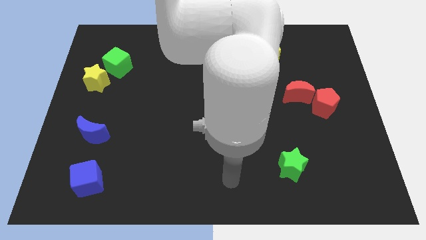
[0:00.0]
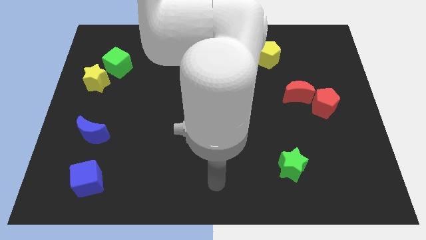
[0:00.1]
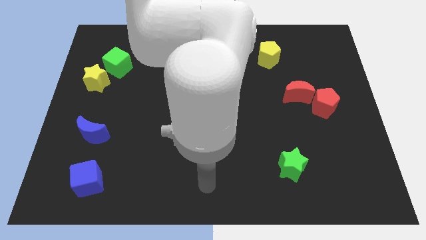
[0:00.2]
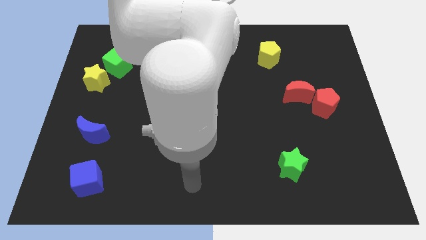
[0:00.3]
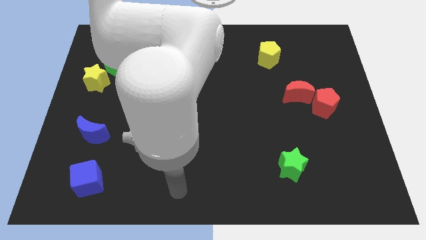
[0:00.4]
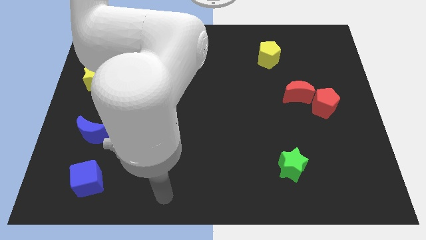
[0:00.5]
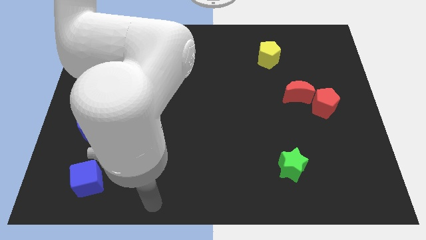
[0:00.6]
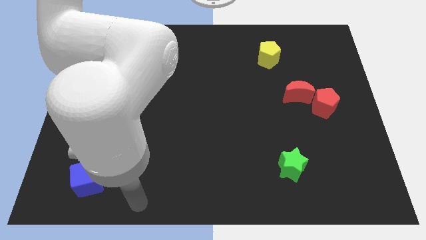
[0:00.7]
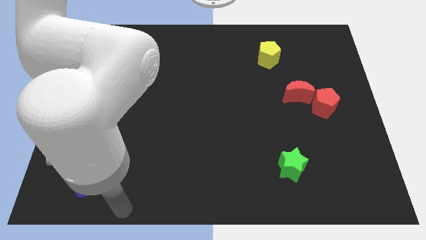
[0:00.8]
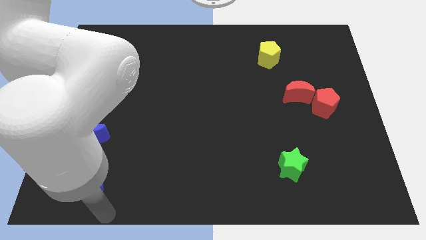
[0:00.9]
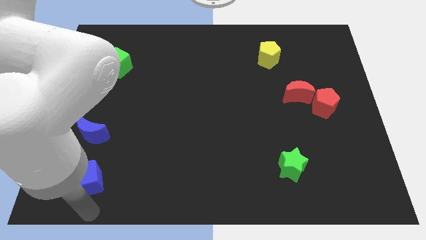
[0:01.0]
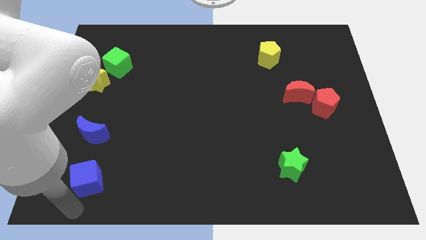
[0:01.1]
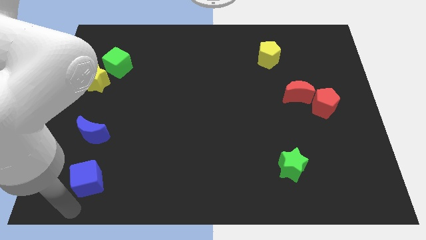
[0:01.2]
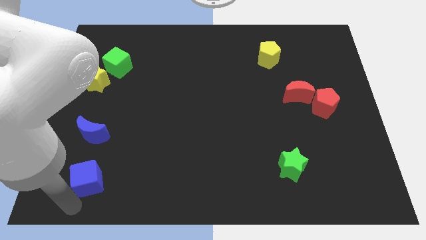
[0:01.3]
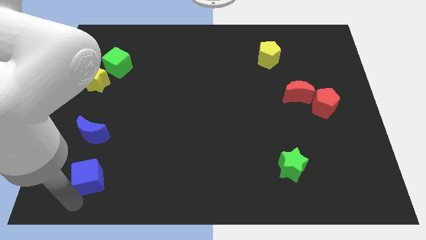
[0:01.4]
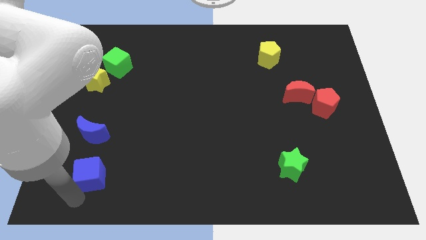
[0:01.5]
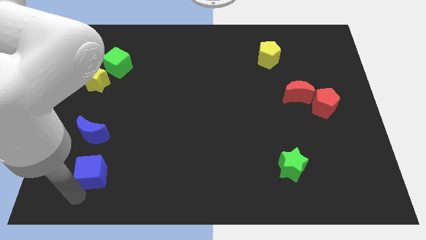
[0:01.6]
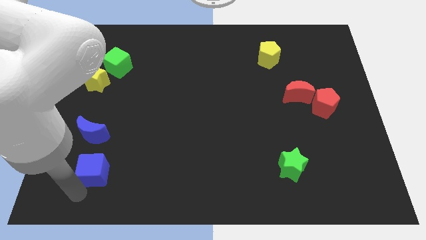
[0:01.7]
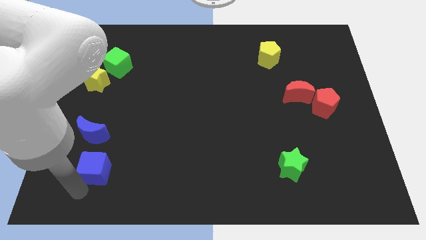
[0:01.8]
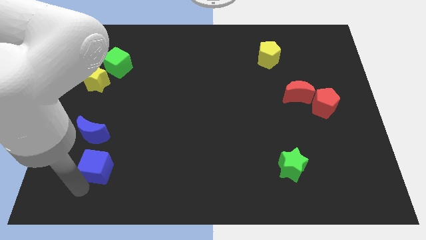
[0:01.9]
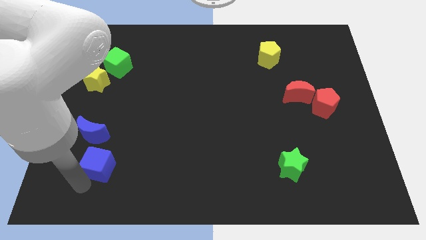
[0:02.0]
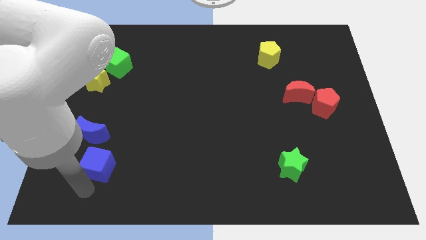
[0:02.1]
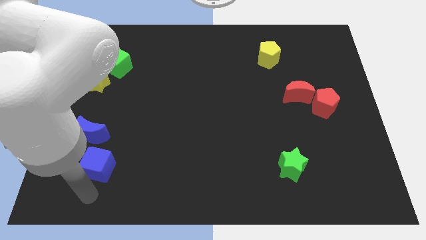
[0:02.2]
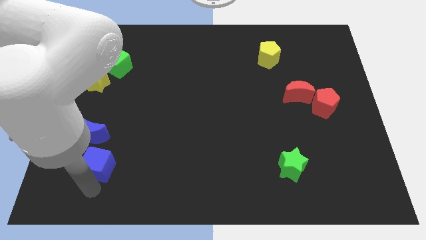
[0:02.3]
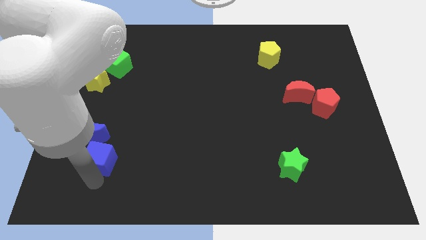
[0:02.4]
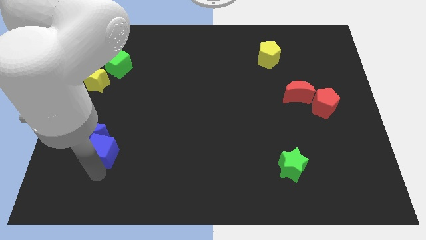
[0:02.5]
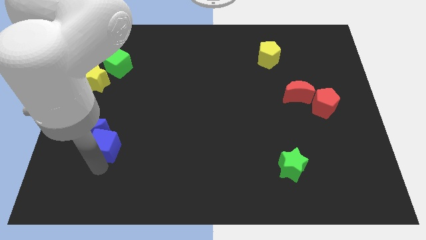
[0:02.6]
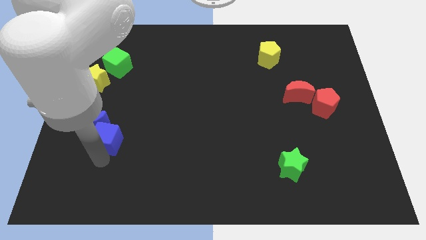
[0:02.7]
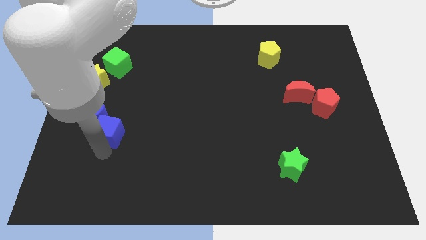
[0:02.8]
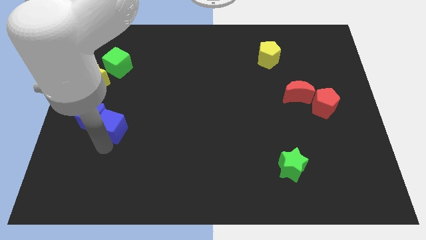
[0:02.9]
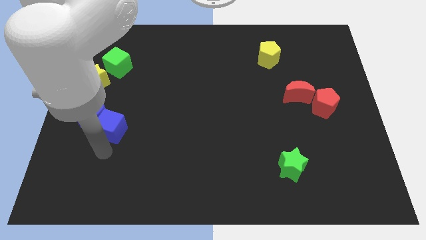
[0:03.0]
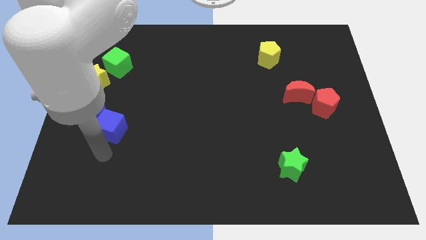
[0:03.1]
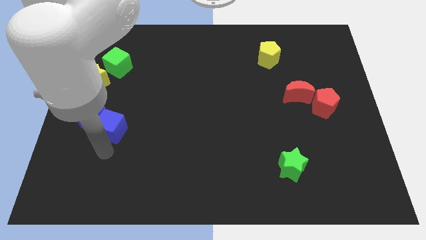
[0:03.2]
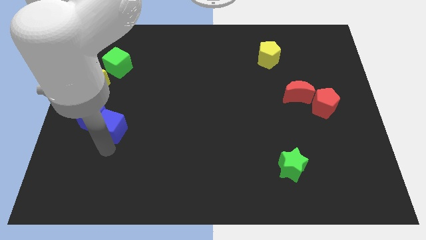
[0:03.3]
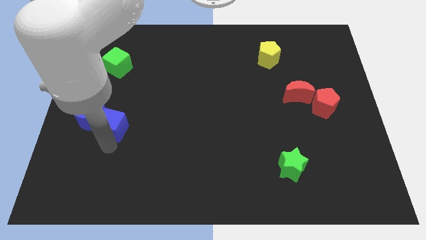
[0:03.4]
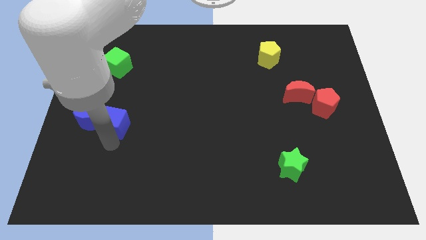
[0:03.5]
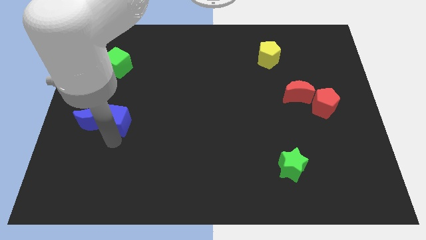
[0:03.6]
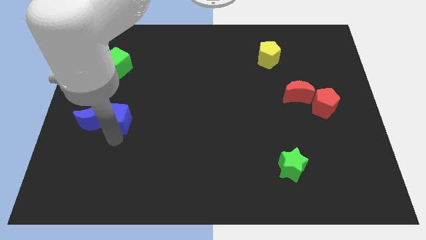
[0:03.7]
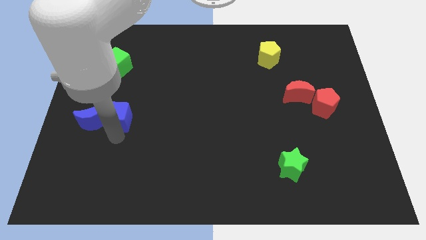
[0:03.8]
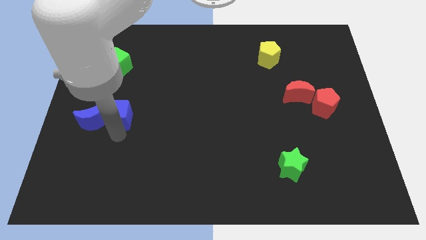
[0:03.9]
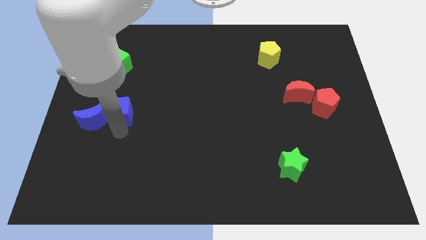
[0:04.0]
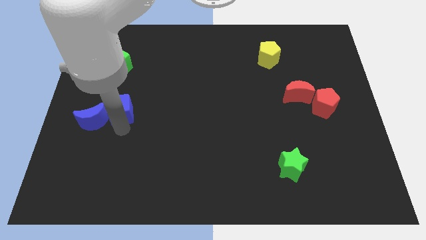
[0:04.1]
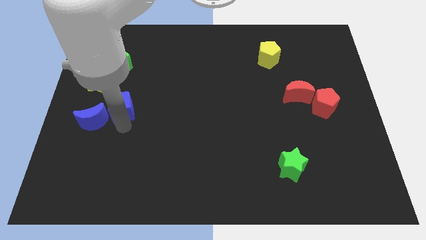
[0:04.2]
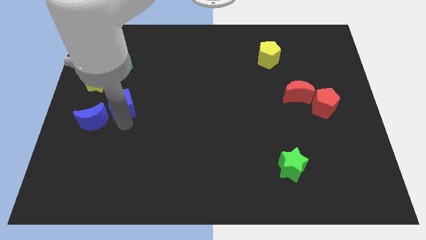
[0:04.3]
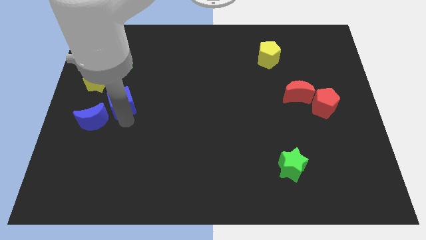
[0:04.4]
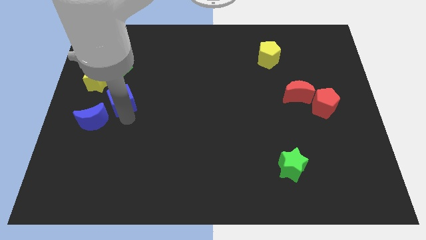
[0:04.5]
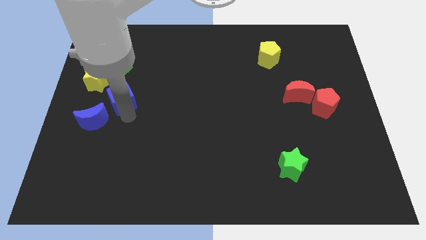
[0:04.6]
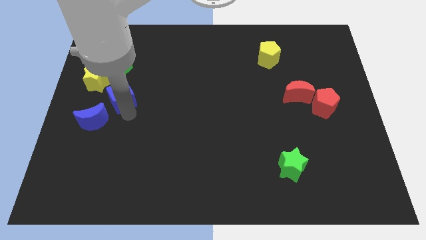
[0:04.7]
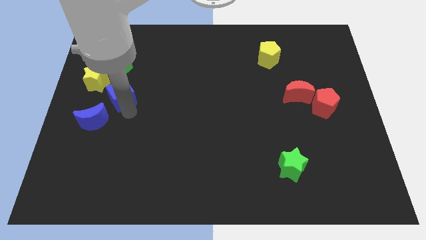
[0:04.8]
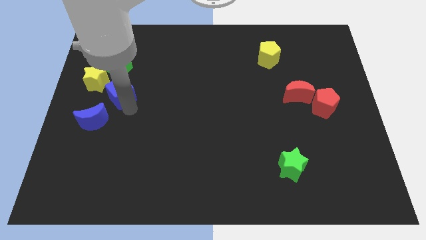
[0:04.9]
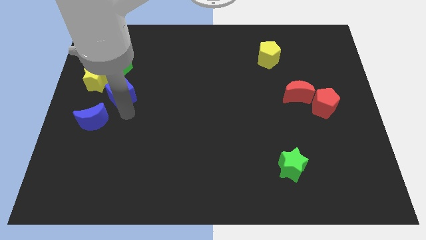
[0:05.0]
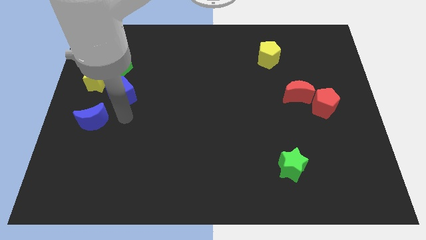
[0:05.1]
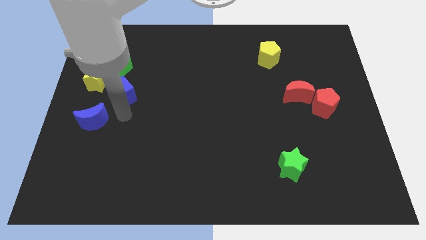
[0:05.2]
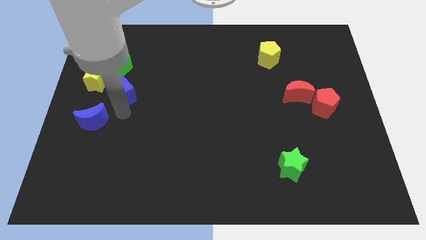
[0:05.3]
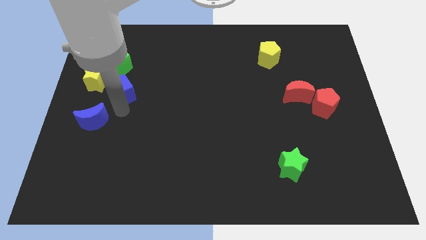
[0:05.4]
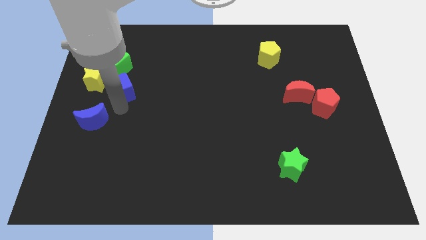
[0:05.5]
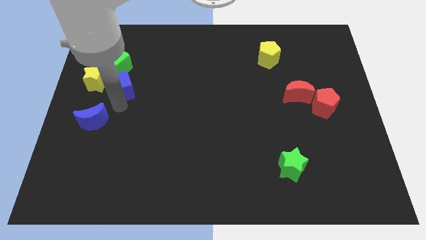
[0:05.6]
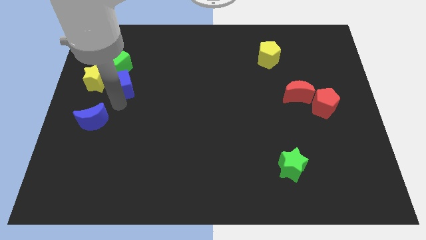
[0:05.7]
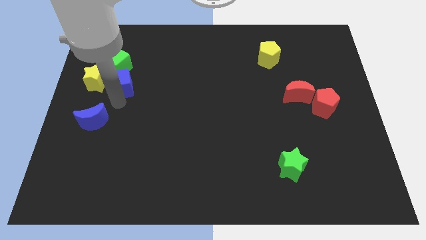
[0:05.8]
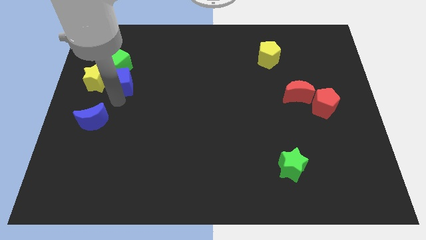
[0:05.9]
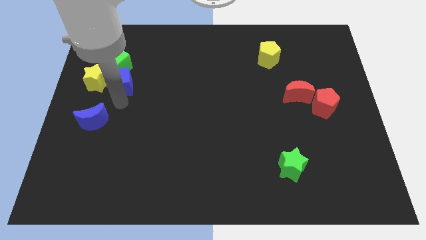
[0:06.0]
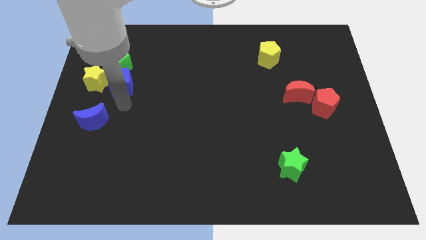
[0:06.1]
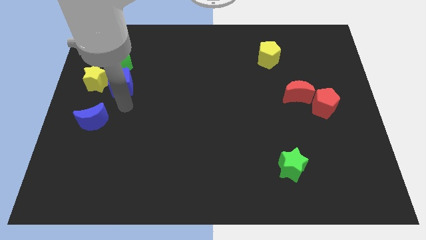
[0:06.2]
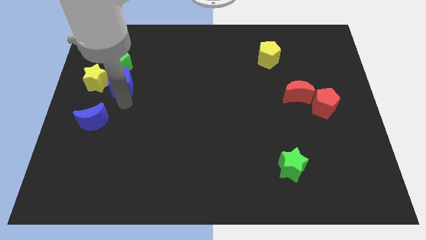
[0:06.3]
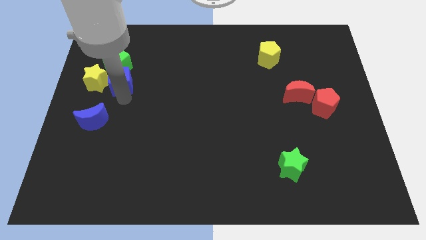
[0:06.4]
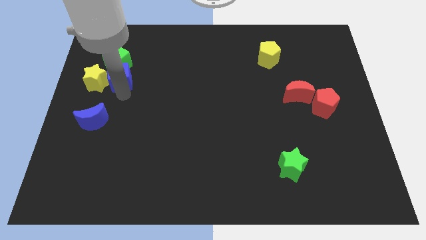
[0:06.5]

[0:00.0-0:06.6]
put the blue cube towards the green cube
